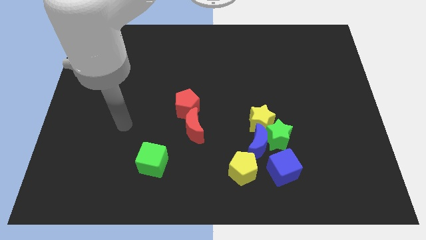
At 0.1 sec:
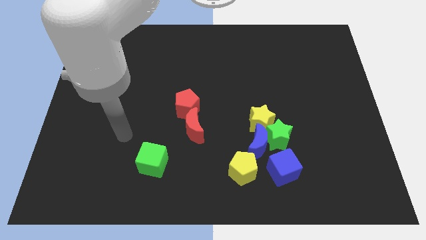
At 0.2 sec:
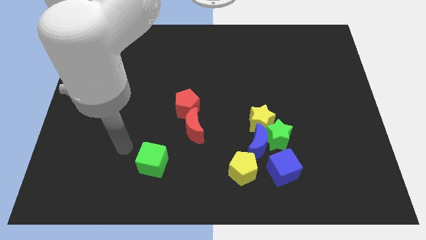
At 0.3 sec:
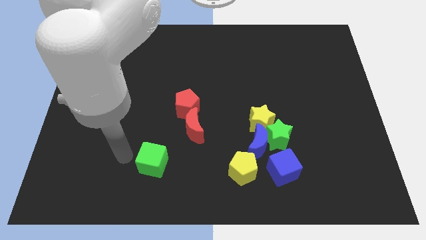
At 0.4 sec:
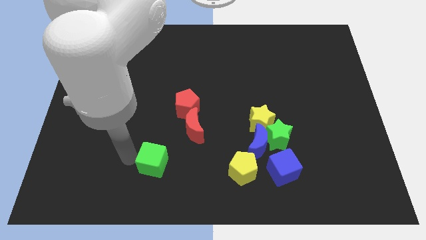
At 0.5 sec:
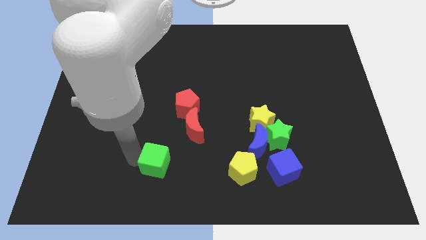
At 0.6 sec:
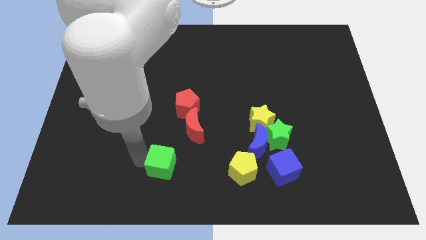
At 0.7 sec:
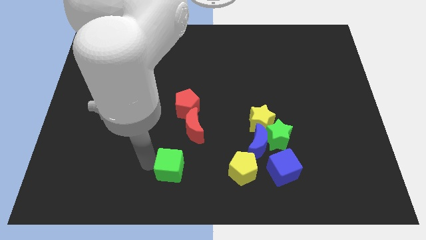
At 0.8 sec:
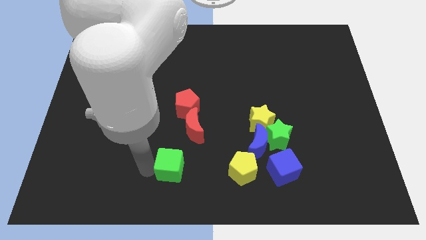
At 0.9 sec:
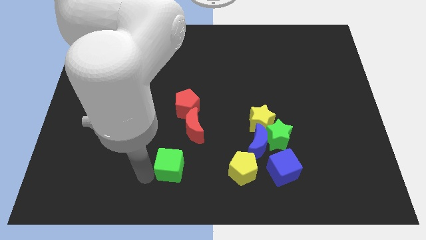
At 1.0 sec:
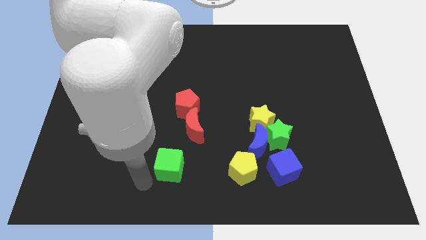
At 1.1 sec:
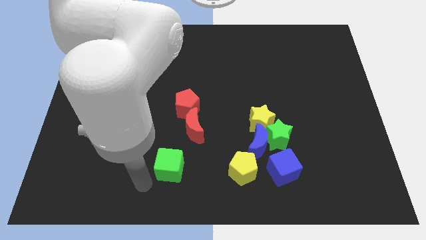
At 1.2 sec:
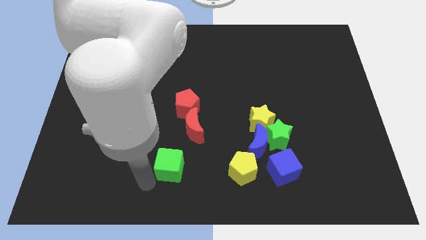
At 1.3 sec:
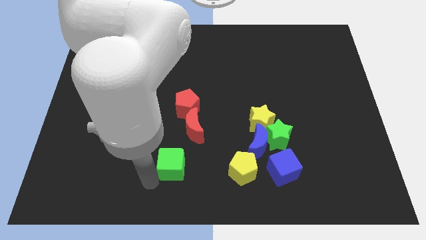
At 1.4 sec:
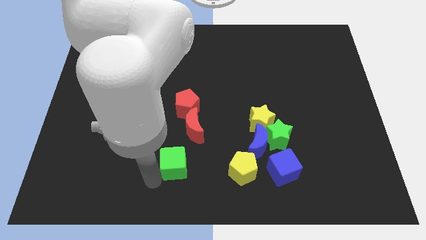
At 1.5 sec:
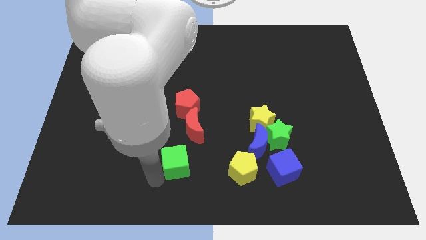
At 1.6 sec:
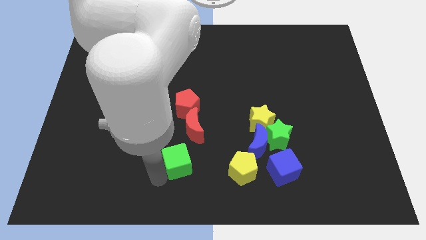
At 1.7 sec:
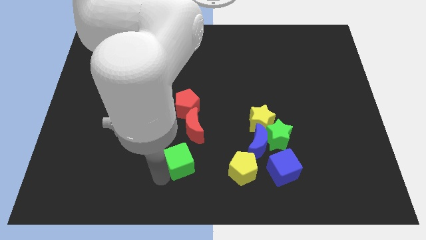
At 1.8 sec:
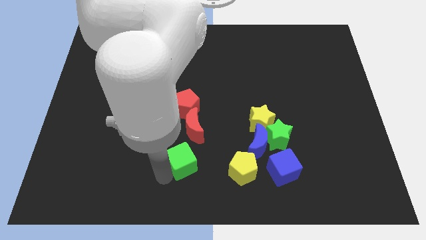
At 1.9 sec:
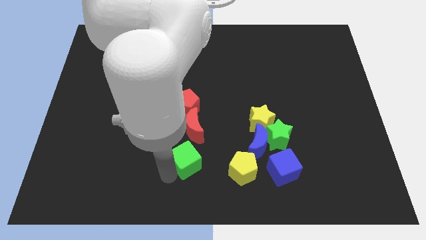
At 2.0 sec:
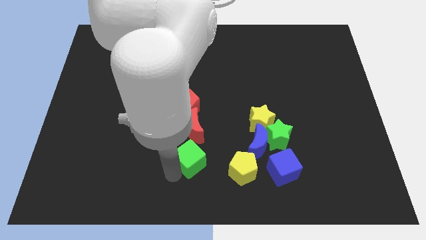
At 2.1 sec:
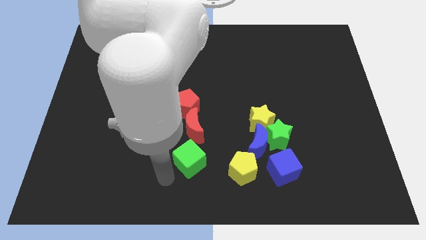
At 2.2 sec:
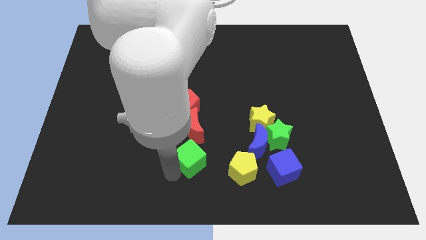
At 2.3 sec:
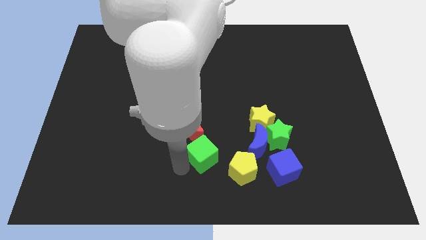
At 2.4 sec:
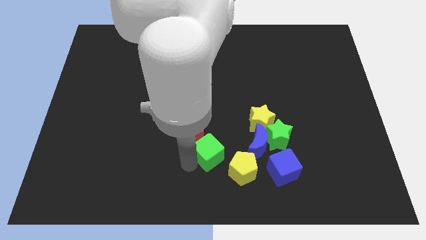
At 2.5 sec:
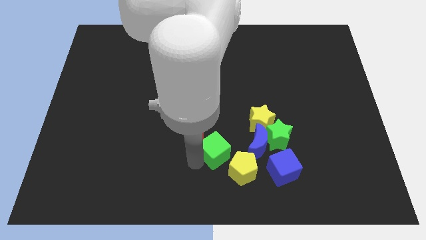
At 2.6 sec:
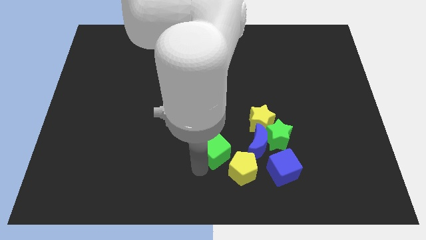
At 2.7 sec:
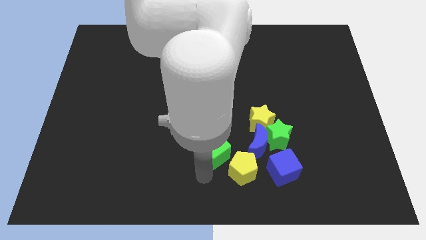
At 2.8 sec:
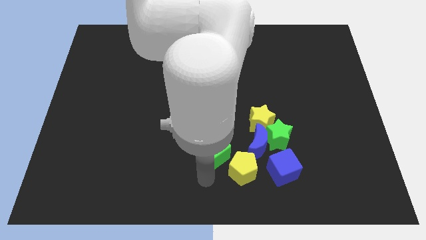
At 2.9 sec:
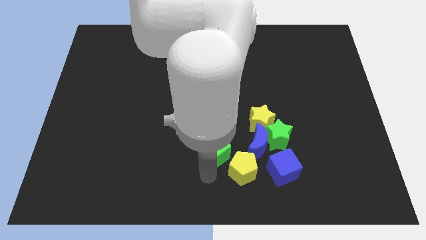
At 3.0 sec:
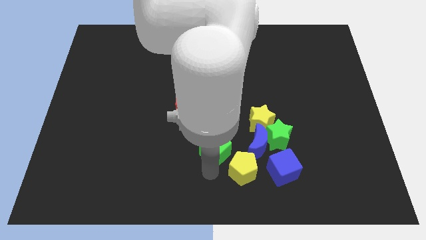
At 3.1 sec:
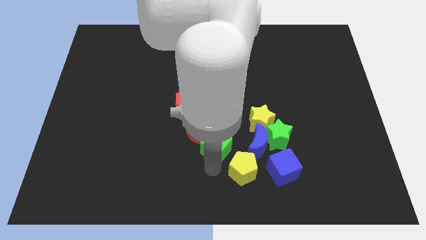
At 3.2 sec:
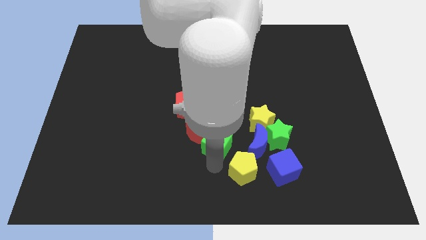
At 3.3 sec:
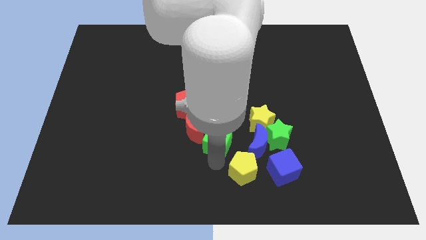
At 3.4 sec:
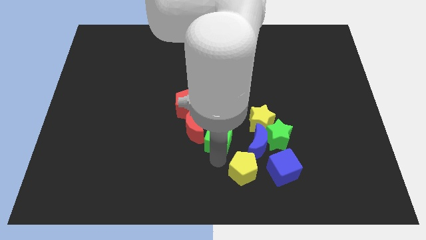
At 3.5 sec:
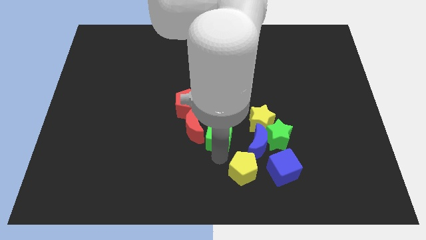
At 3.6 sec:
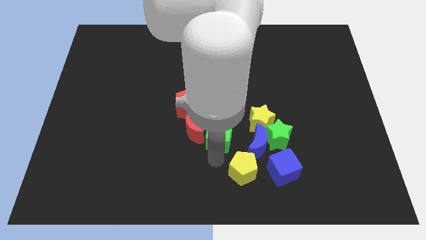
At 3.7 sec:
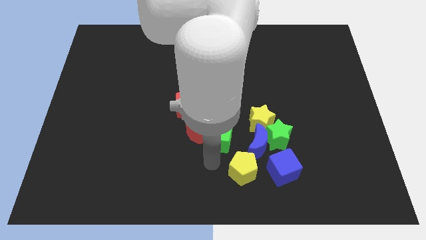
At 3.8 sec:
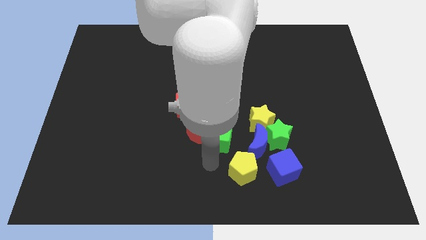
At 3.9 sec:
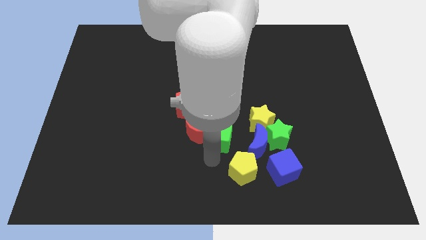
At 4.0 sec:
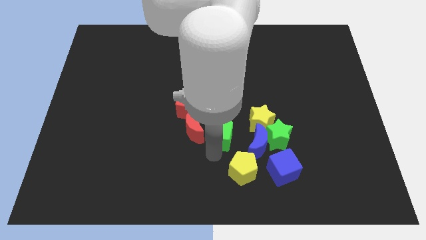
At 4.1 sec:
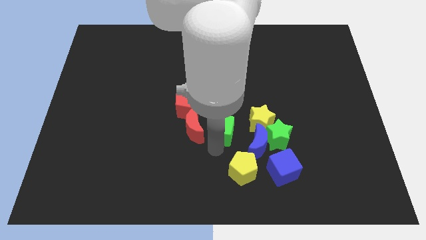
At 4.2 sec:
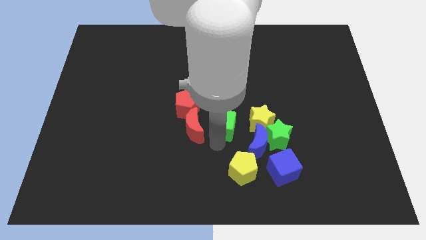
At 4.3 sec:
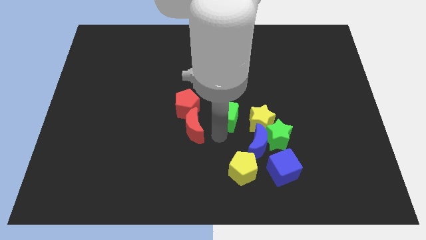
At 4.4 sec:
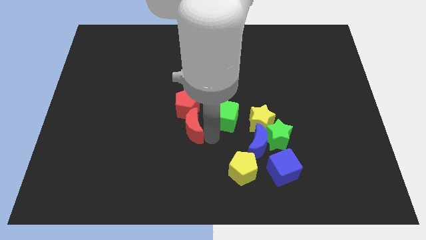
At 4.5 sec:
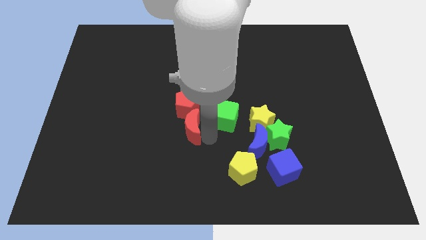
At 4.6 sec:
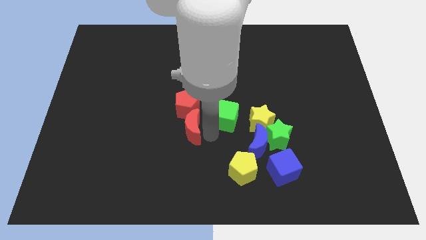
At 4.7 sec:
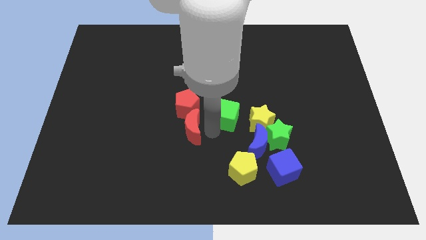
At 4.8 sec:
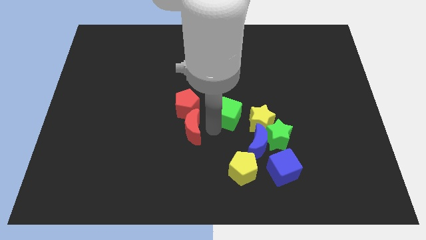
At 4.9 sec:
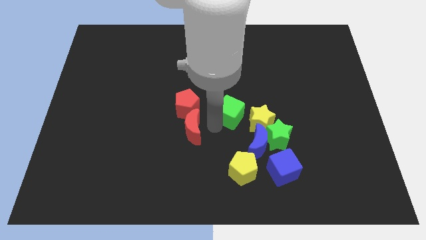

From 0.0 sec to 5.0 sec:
slide the green cube diagonally upwards and to the right

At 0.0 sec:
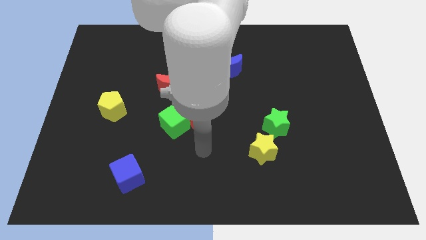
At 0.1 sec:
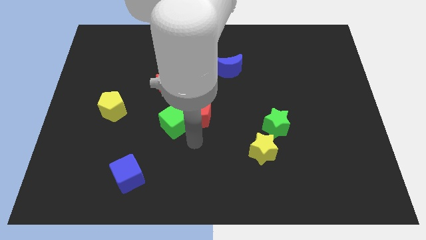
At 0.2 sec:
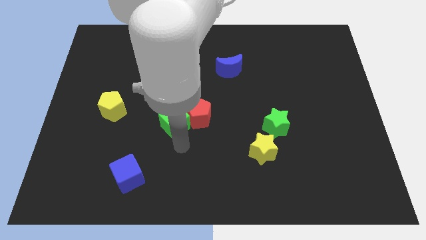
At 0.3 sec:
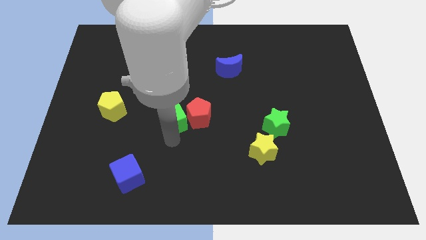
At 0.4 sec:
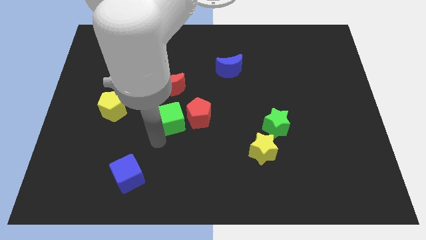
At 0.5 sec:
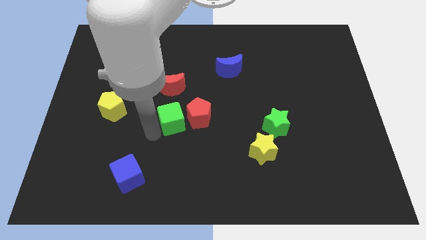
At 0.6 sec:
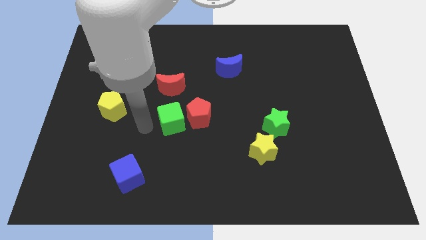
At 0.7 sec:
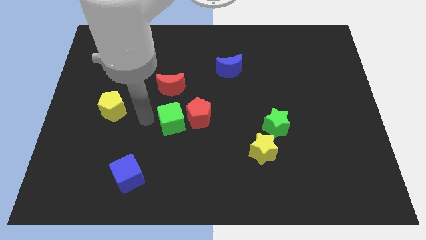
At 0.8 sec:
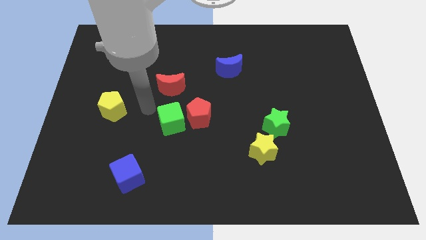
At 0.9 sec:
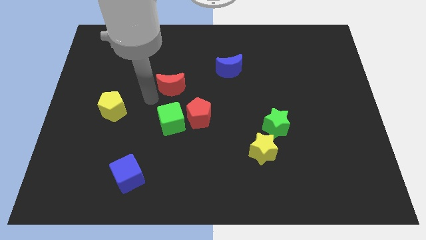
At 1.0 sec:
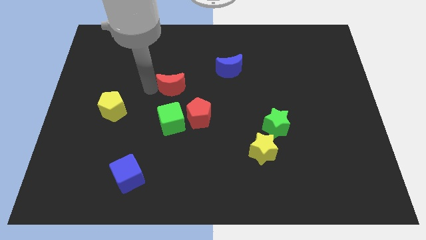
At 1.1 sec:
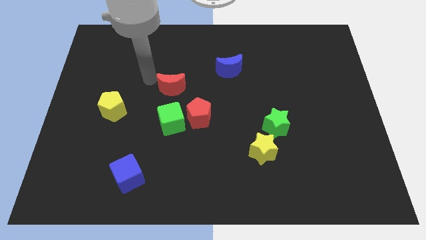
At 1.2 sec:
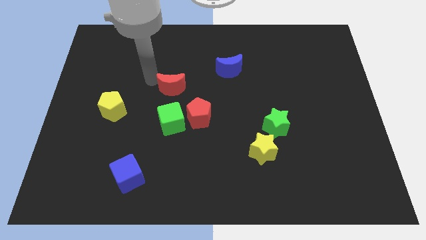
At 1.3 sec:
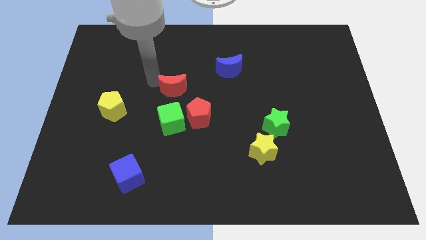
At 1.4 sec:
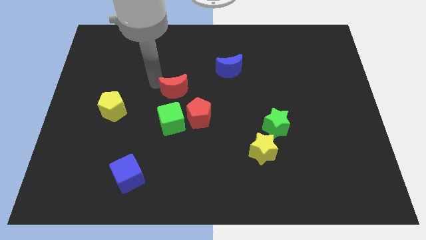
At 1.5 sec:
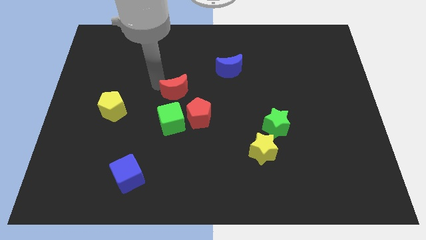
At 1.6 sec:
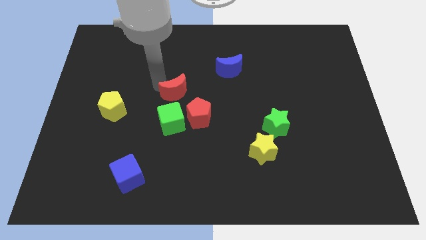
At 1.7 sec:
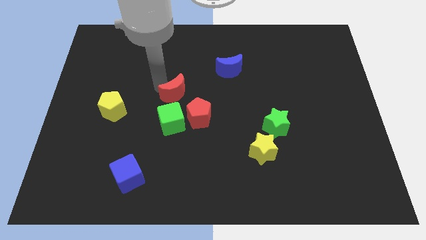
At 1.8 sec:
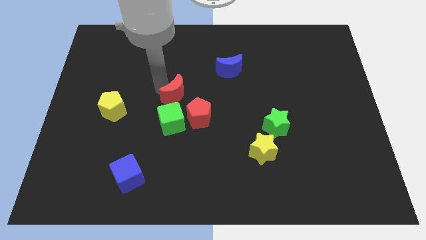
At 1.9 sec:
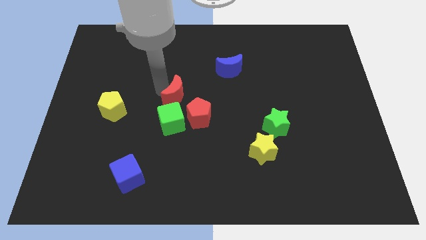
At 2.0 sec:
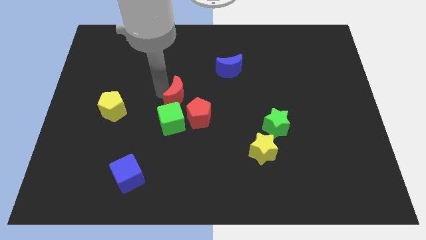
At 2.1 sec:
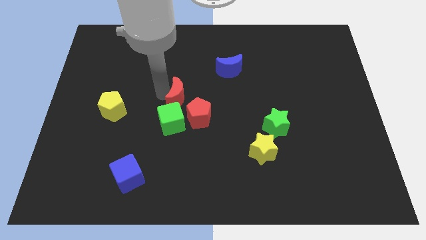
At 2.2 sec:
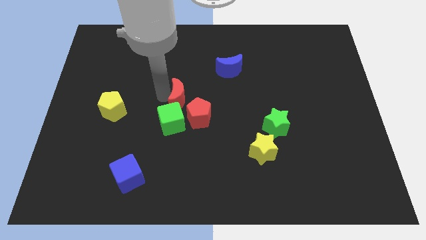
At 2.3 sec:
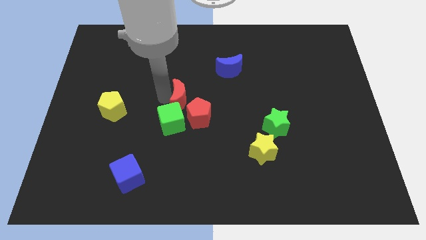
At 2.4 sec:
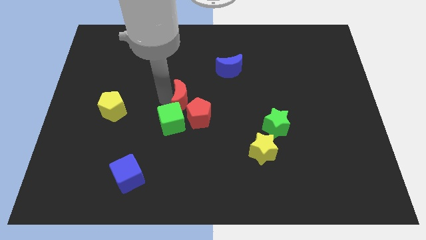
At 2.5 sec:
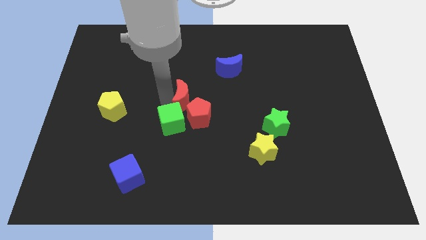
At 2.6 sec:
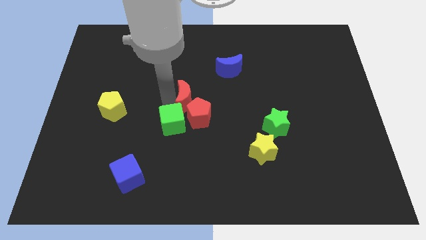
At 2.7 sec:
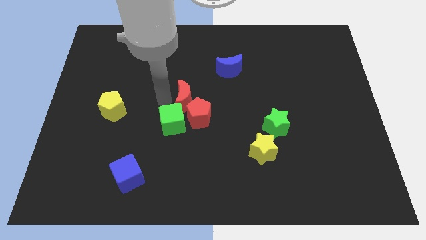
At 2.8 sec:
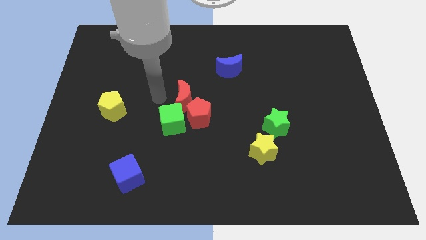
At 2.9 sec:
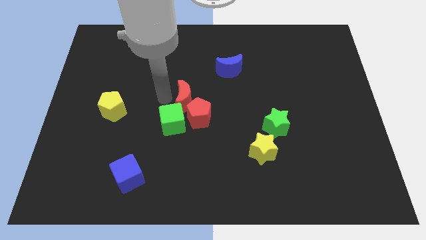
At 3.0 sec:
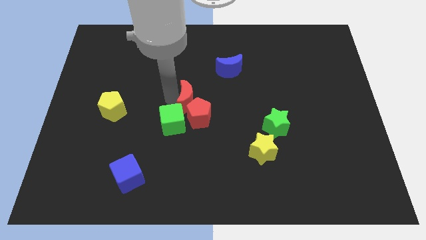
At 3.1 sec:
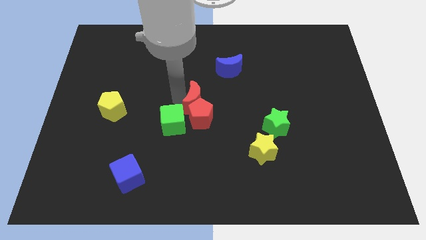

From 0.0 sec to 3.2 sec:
move the red moon downwards and to the right a little

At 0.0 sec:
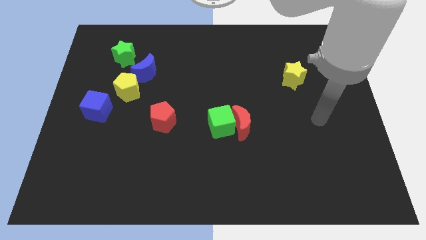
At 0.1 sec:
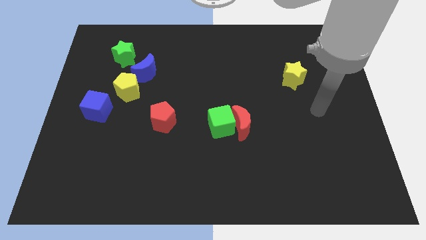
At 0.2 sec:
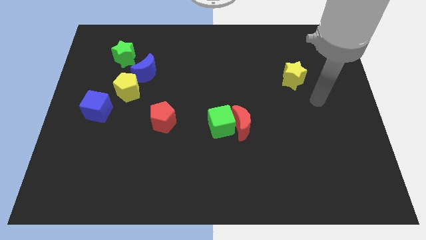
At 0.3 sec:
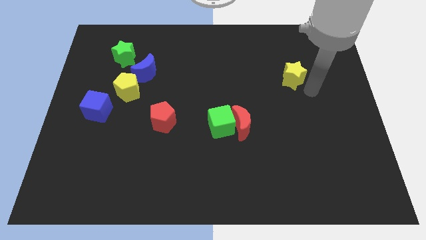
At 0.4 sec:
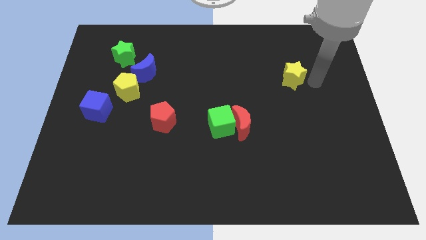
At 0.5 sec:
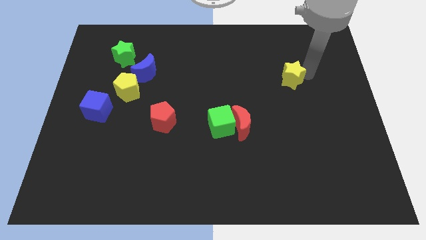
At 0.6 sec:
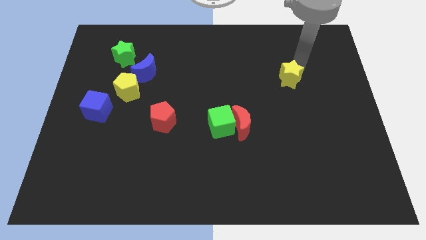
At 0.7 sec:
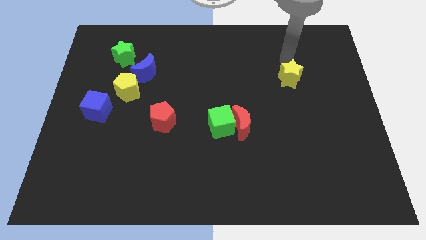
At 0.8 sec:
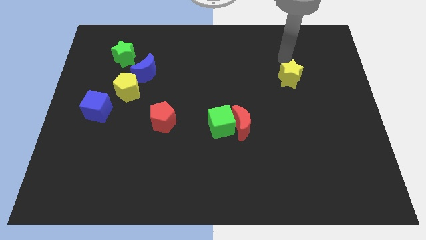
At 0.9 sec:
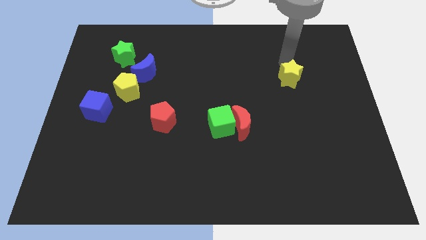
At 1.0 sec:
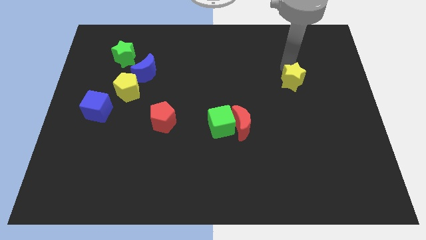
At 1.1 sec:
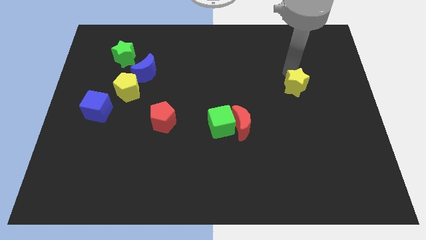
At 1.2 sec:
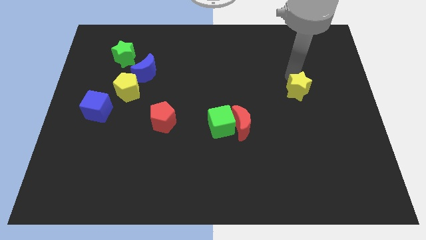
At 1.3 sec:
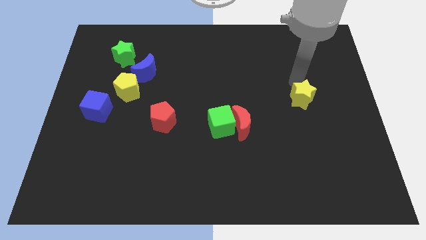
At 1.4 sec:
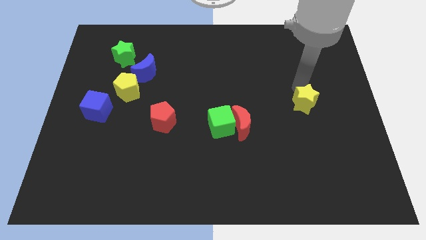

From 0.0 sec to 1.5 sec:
push the yellow star somewhat downwards
